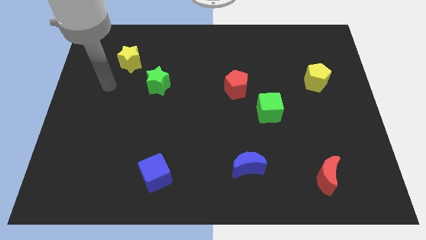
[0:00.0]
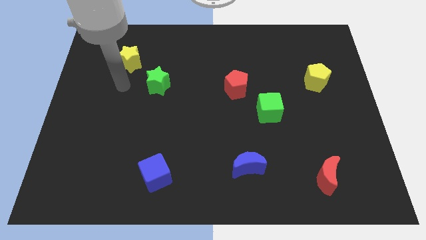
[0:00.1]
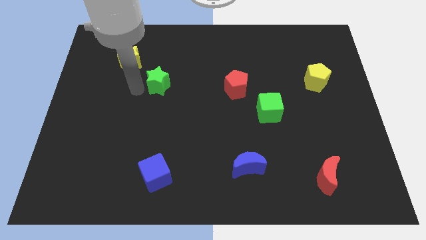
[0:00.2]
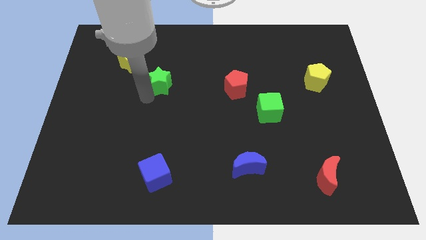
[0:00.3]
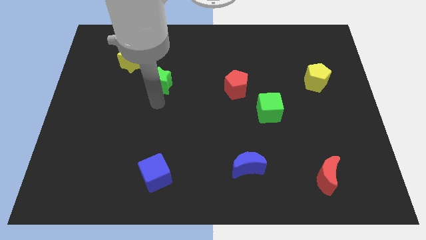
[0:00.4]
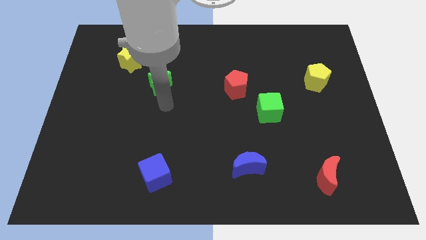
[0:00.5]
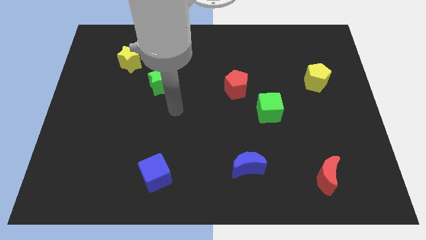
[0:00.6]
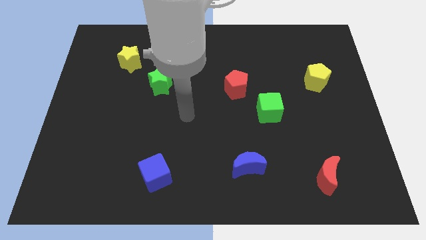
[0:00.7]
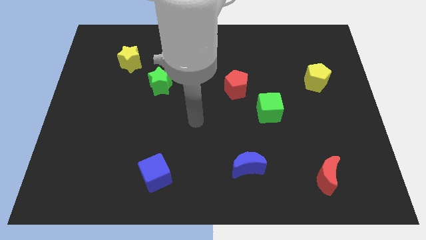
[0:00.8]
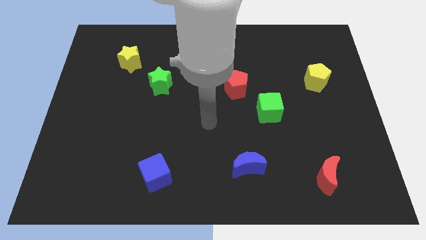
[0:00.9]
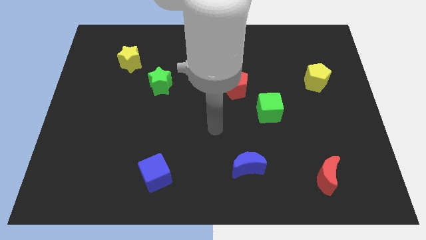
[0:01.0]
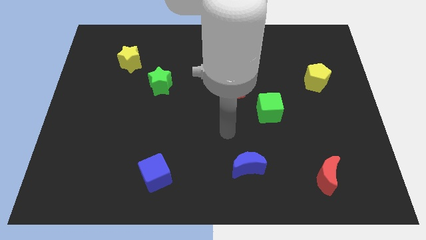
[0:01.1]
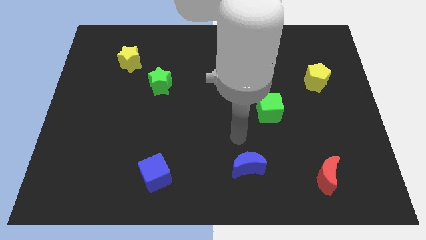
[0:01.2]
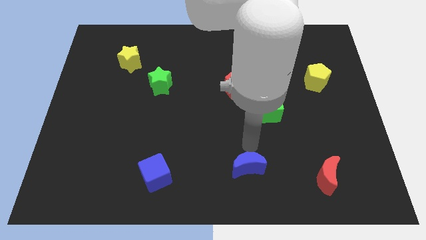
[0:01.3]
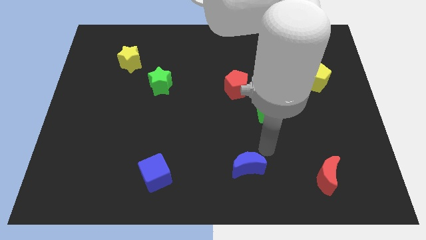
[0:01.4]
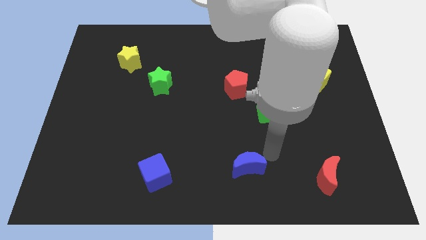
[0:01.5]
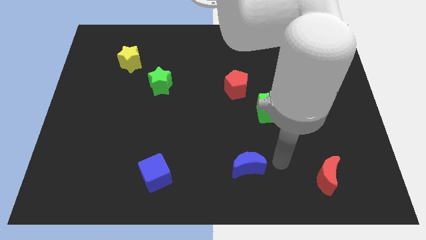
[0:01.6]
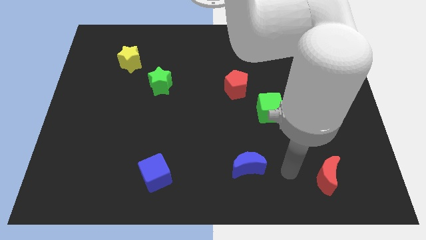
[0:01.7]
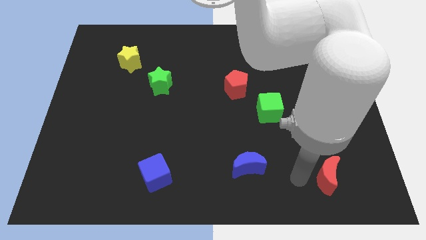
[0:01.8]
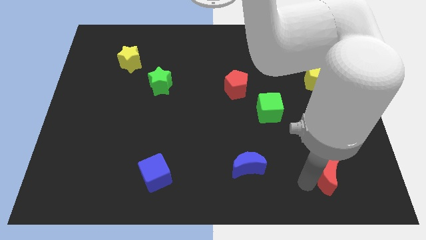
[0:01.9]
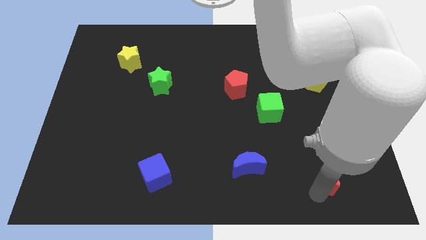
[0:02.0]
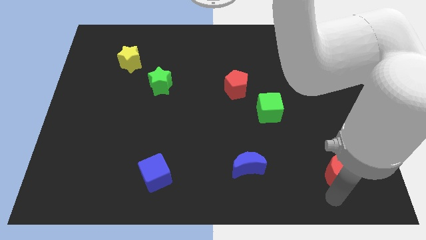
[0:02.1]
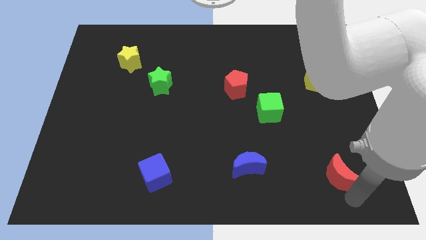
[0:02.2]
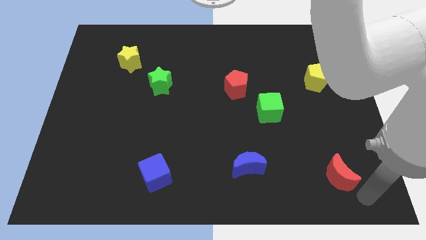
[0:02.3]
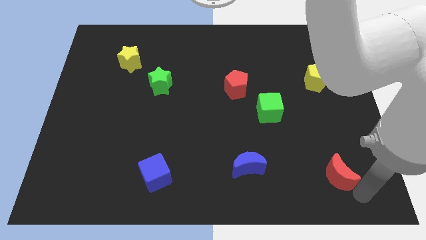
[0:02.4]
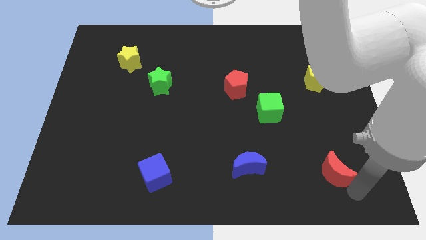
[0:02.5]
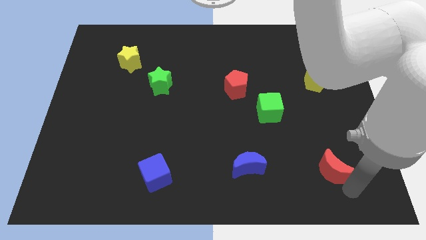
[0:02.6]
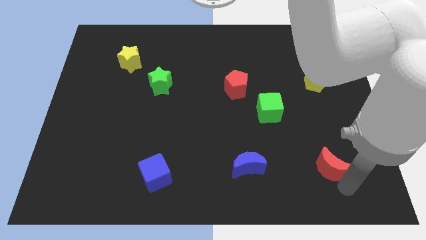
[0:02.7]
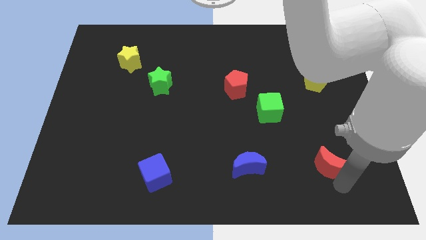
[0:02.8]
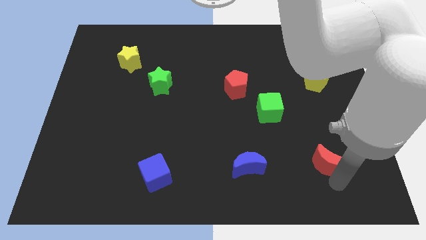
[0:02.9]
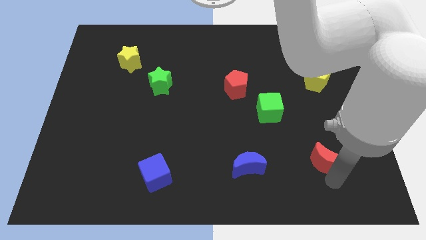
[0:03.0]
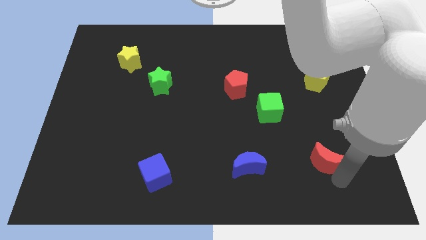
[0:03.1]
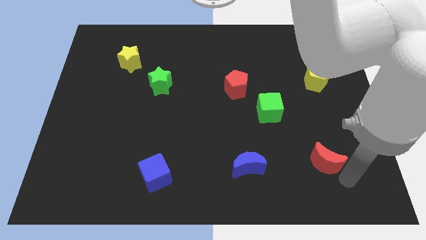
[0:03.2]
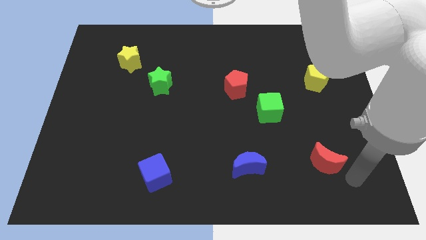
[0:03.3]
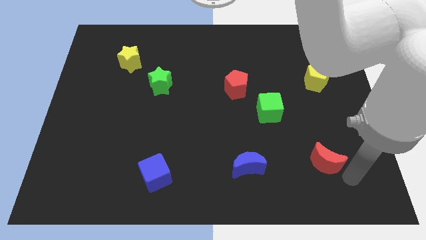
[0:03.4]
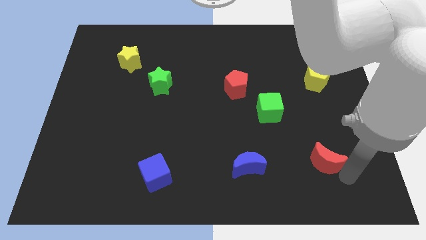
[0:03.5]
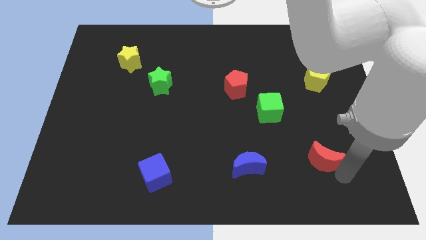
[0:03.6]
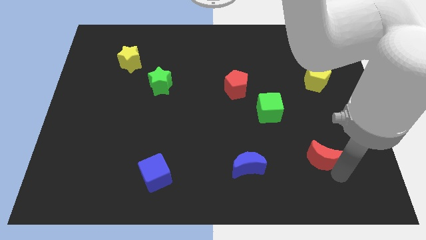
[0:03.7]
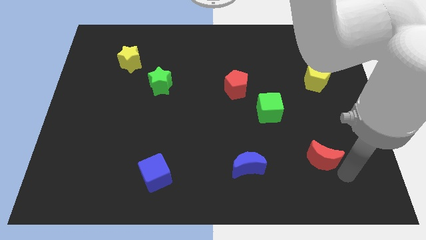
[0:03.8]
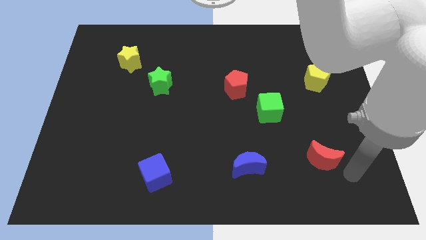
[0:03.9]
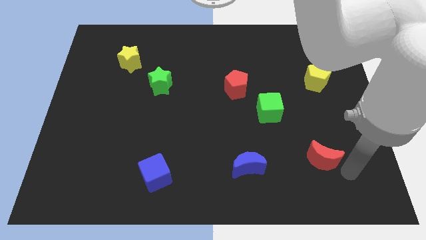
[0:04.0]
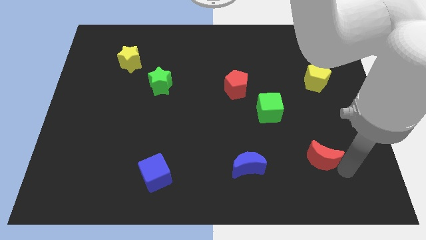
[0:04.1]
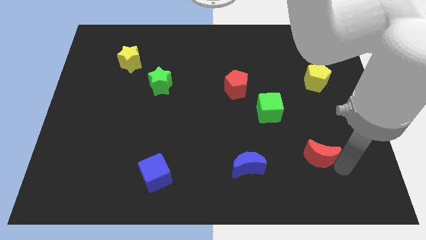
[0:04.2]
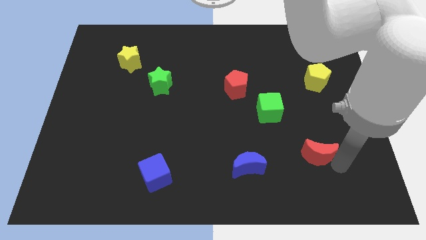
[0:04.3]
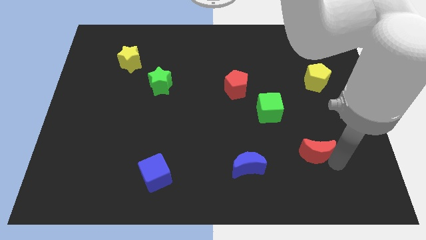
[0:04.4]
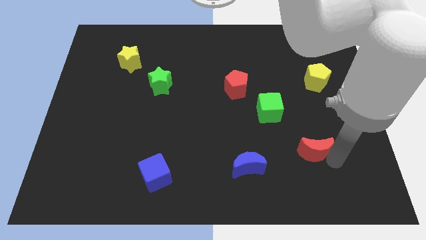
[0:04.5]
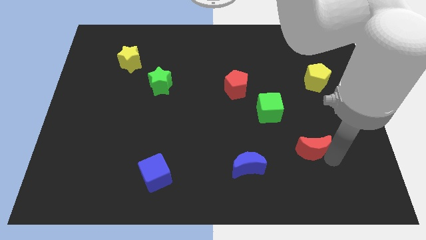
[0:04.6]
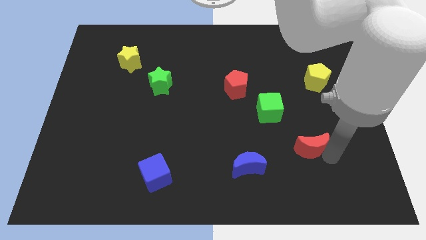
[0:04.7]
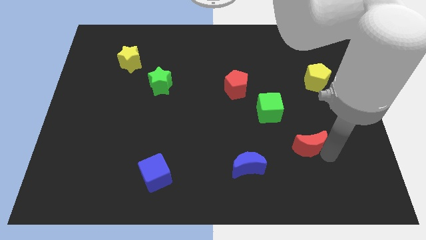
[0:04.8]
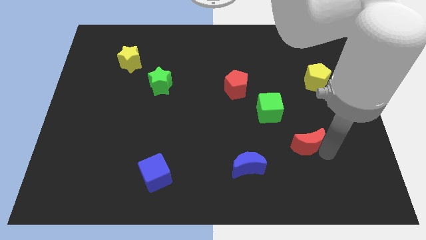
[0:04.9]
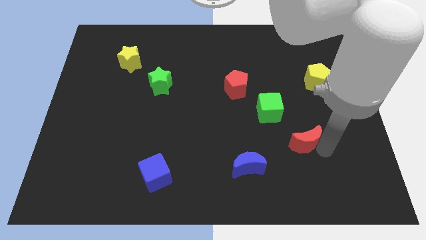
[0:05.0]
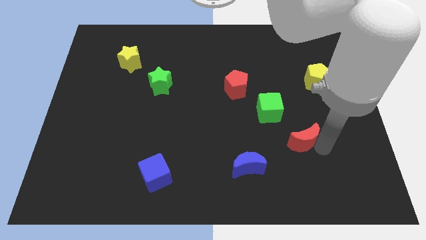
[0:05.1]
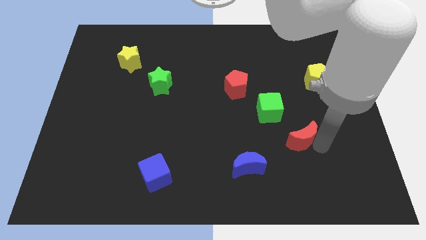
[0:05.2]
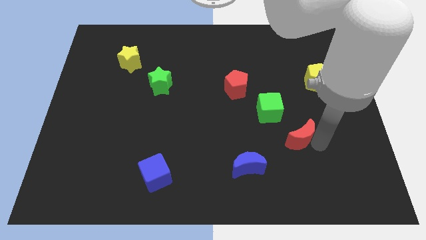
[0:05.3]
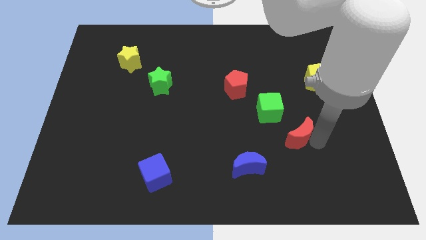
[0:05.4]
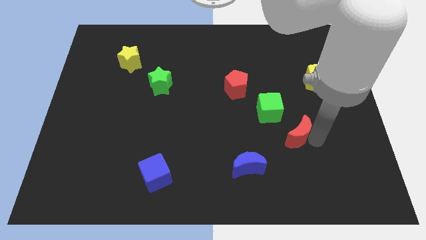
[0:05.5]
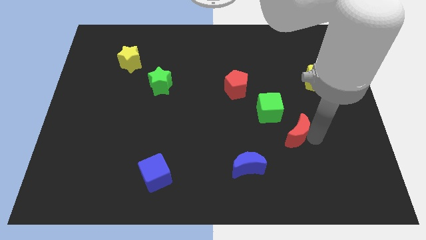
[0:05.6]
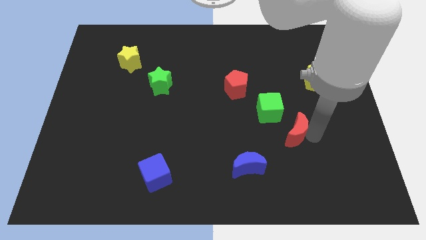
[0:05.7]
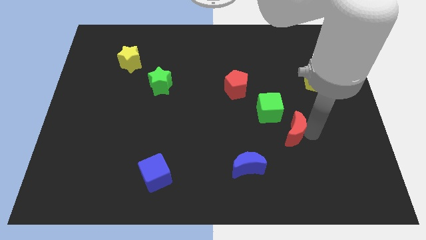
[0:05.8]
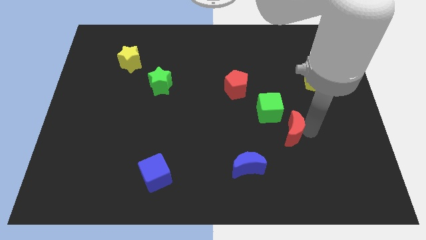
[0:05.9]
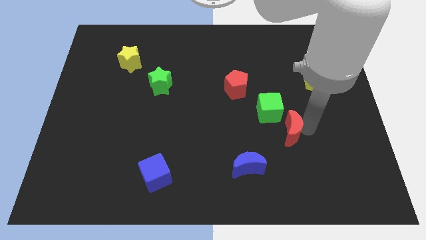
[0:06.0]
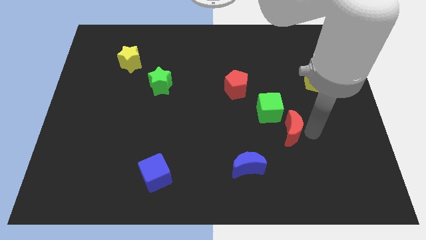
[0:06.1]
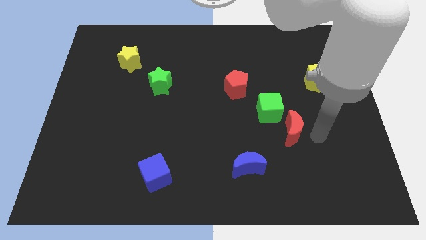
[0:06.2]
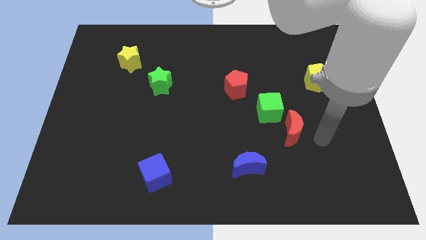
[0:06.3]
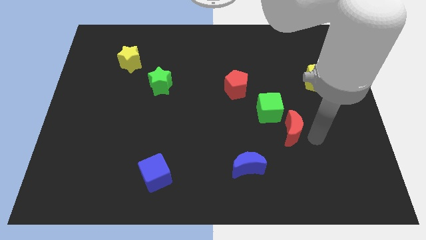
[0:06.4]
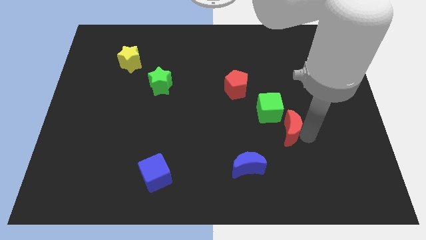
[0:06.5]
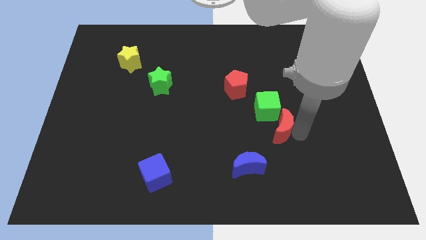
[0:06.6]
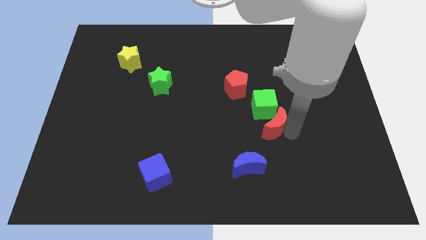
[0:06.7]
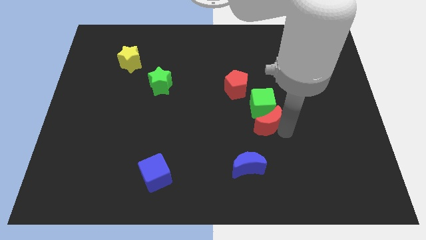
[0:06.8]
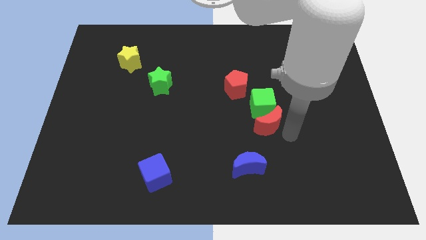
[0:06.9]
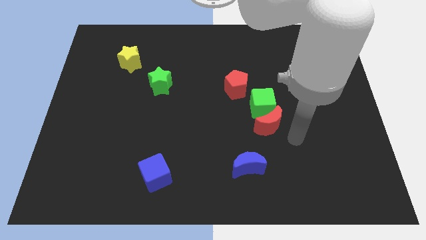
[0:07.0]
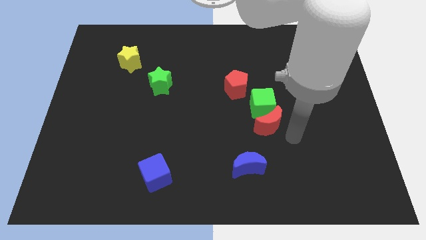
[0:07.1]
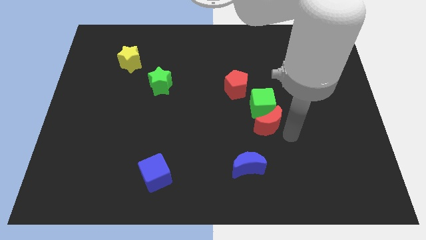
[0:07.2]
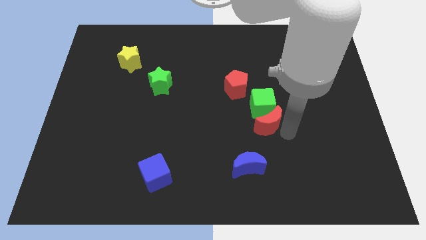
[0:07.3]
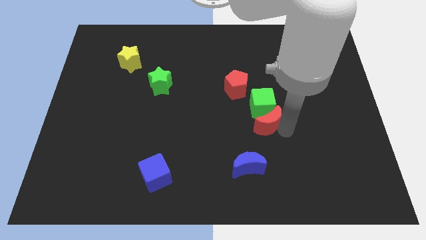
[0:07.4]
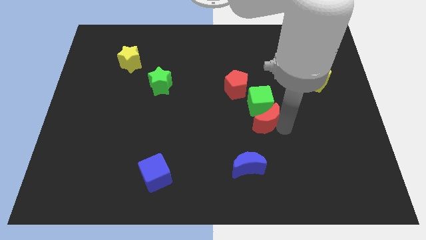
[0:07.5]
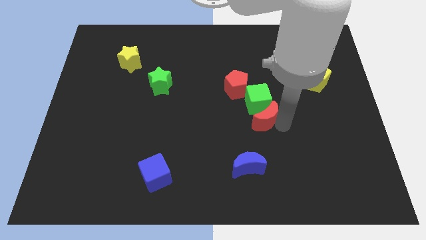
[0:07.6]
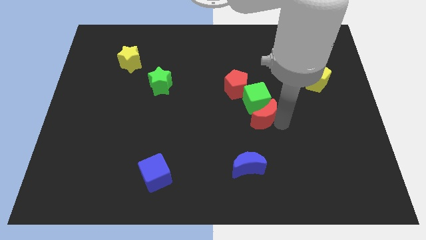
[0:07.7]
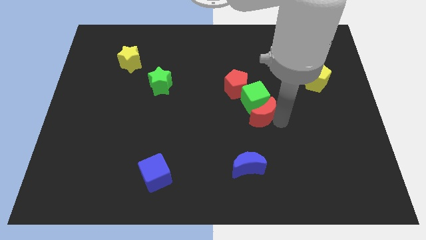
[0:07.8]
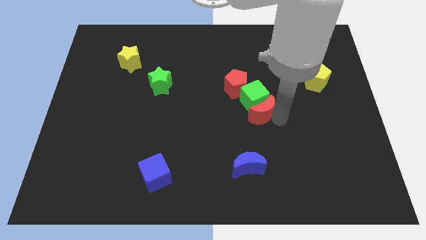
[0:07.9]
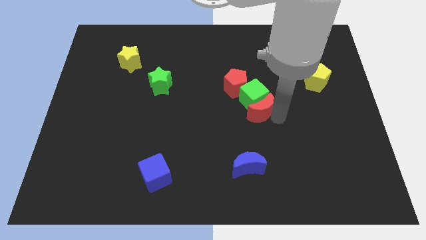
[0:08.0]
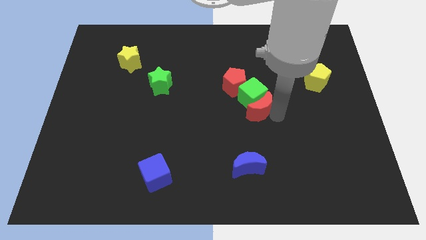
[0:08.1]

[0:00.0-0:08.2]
move the red moon up and then to the left
